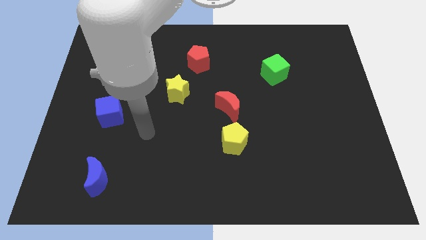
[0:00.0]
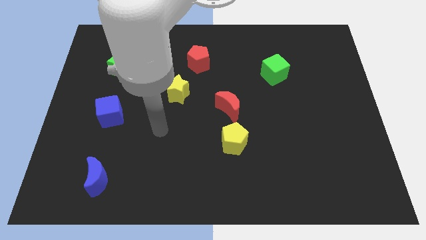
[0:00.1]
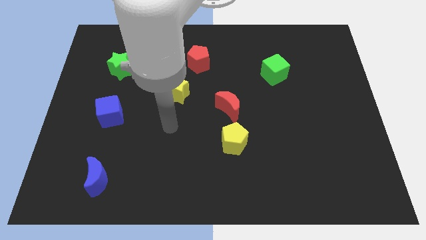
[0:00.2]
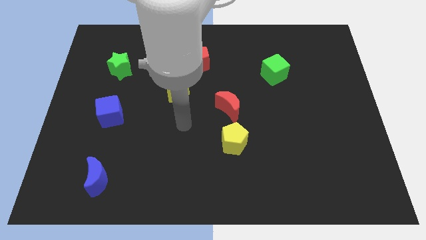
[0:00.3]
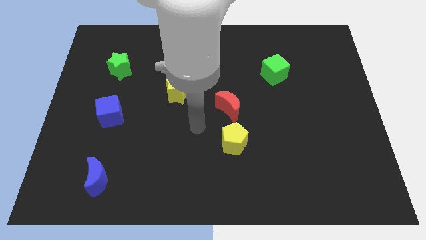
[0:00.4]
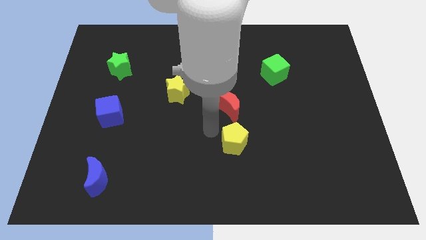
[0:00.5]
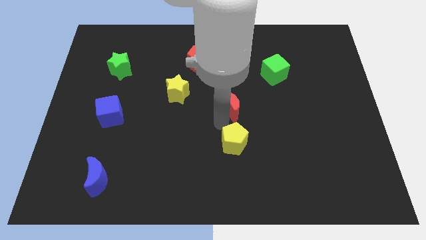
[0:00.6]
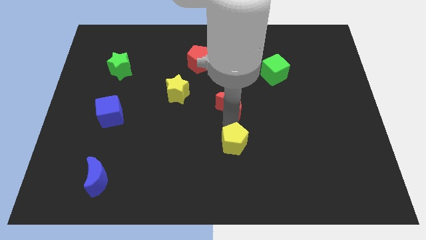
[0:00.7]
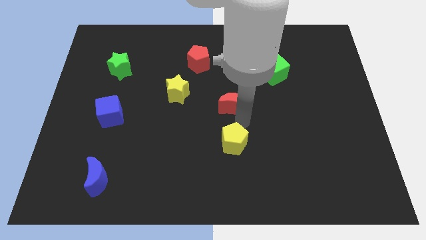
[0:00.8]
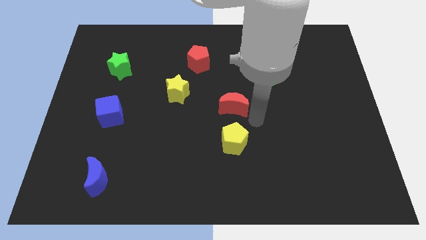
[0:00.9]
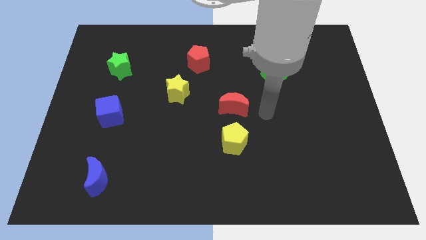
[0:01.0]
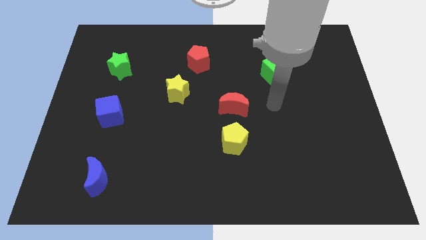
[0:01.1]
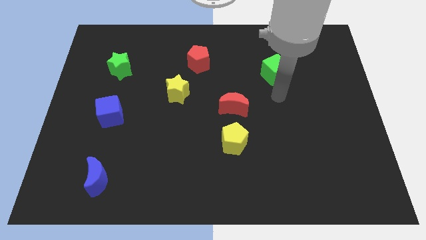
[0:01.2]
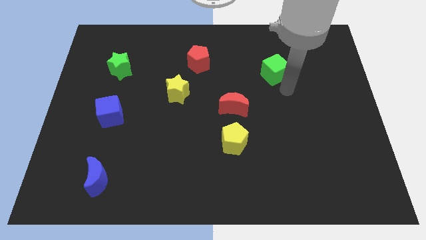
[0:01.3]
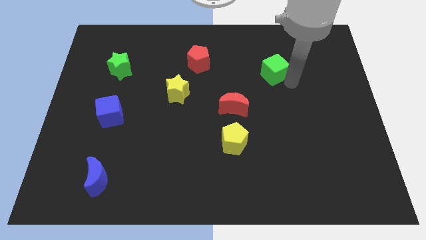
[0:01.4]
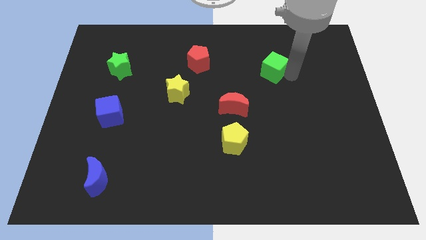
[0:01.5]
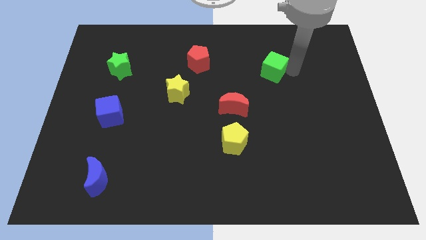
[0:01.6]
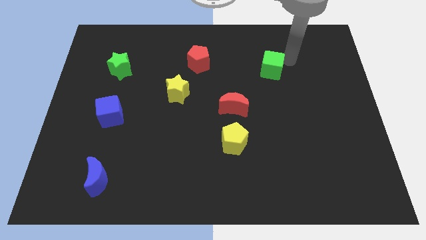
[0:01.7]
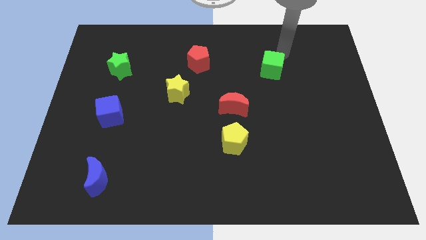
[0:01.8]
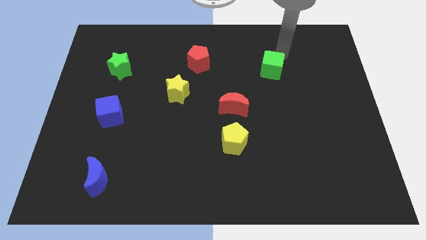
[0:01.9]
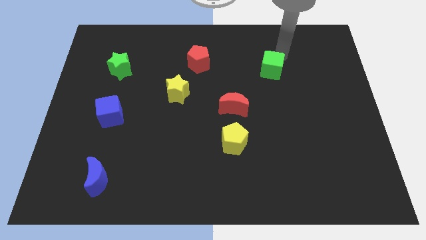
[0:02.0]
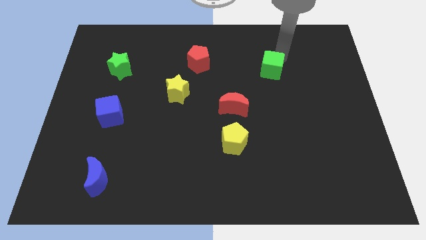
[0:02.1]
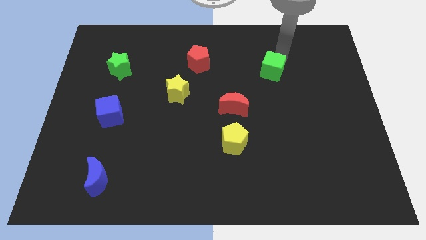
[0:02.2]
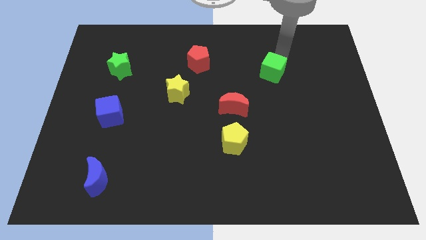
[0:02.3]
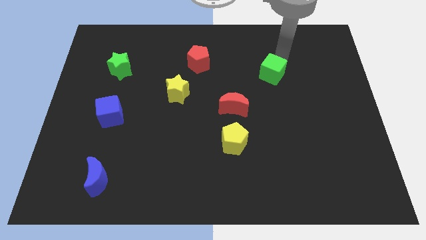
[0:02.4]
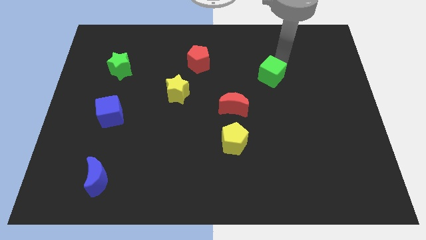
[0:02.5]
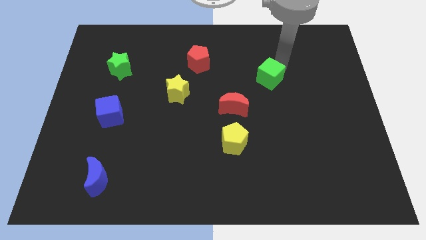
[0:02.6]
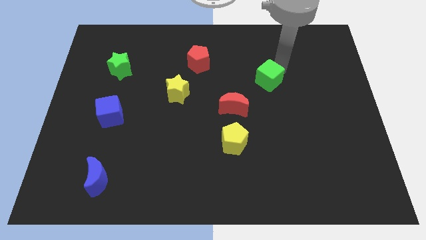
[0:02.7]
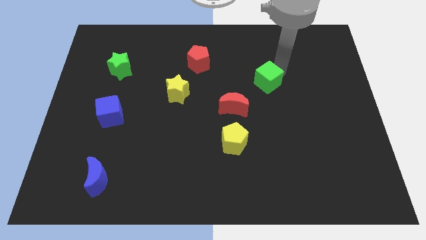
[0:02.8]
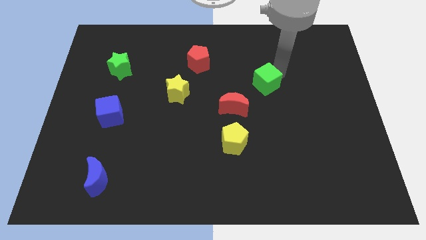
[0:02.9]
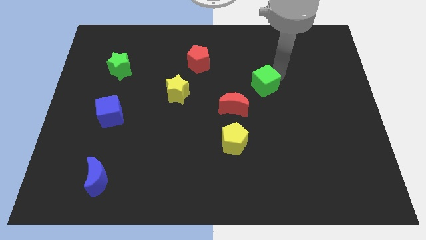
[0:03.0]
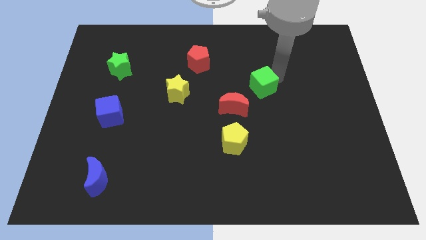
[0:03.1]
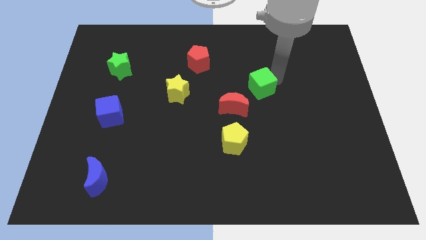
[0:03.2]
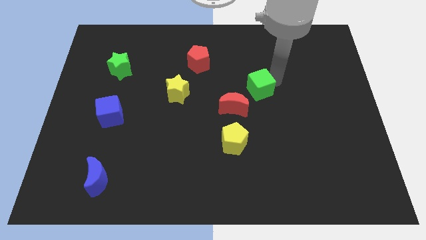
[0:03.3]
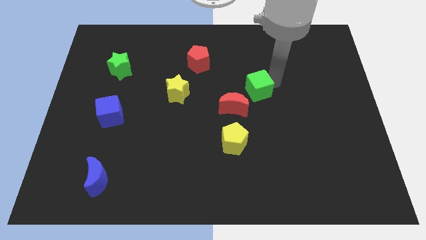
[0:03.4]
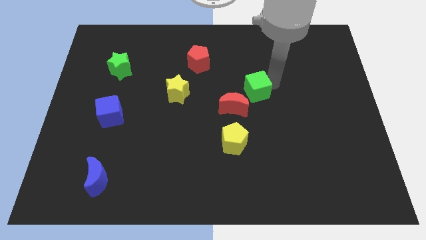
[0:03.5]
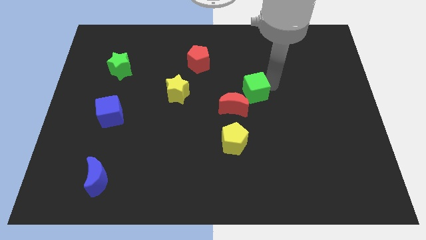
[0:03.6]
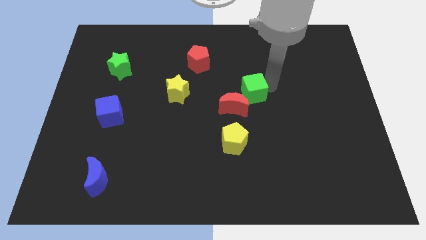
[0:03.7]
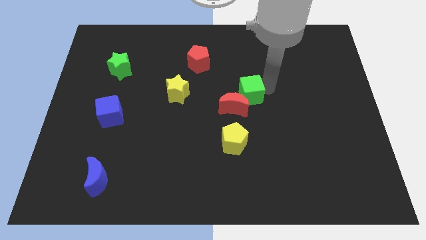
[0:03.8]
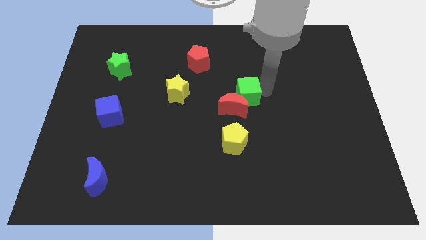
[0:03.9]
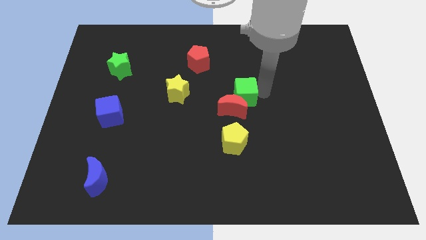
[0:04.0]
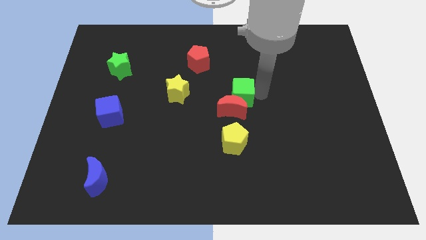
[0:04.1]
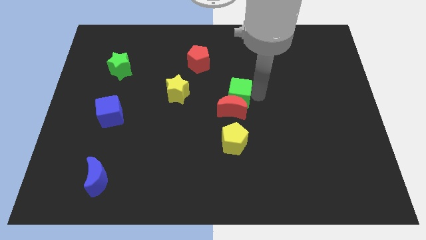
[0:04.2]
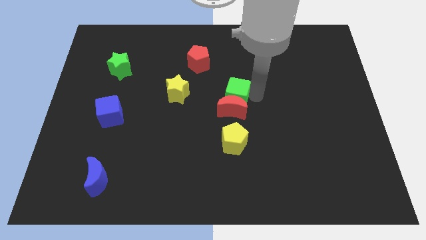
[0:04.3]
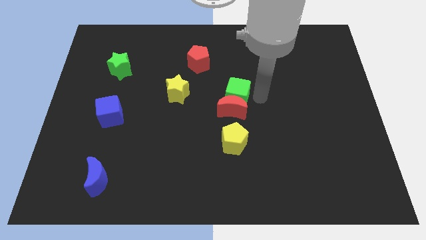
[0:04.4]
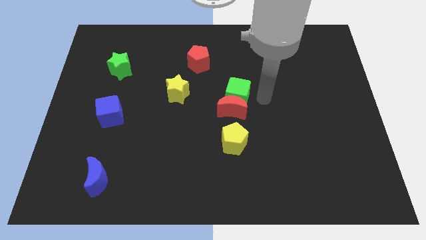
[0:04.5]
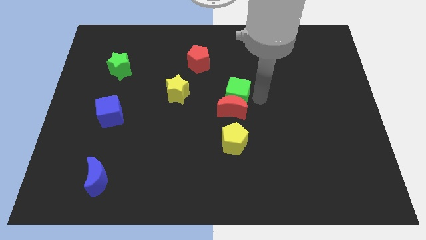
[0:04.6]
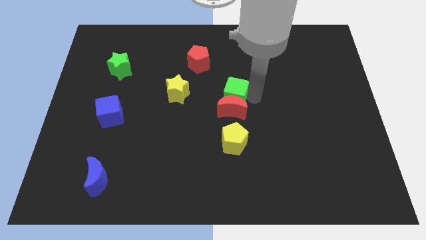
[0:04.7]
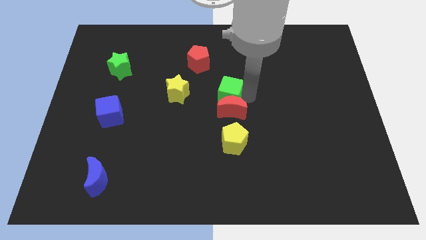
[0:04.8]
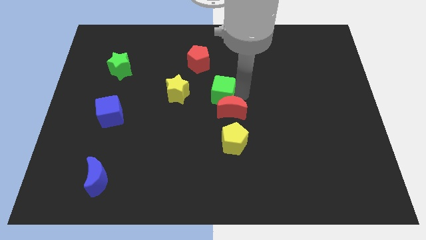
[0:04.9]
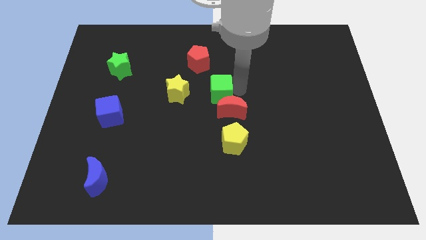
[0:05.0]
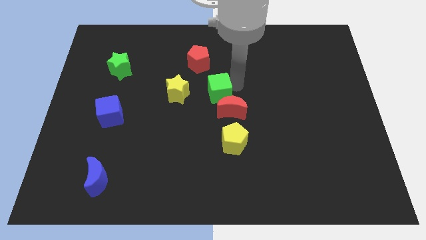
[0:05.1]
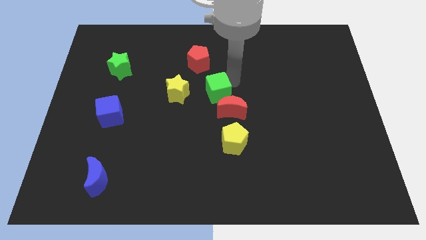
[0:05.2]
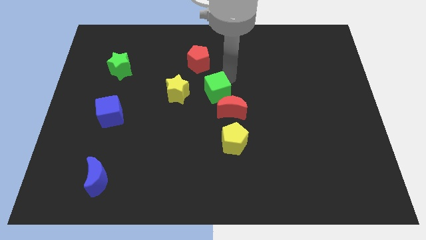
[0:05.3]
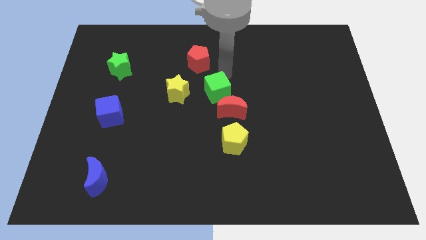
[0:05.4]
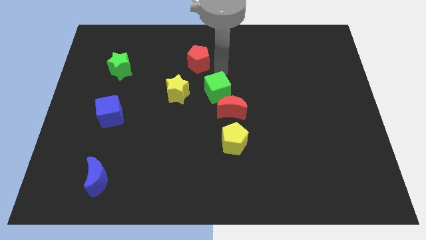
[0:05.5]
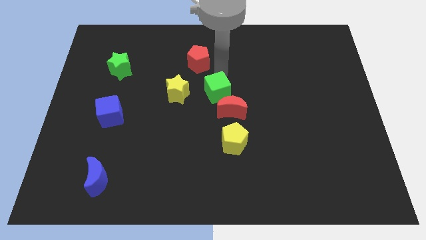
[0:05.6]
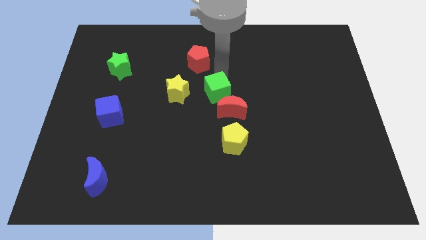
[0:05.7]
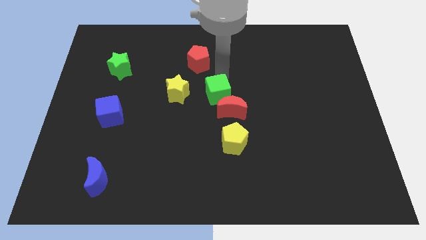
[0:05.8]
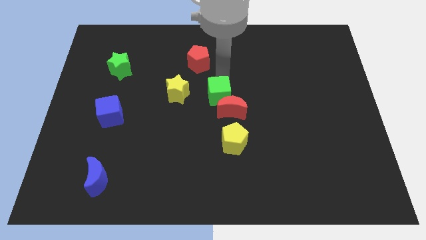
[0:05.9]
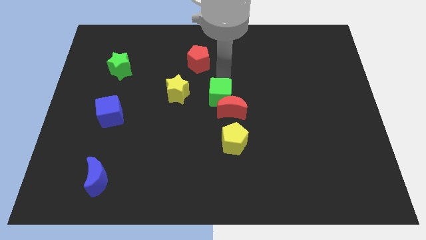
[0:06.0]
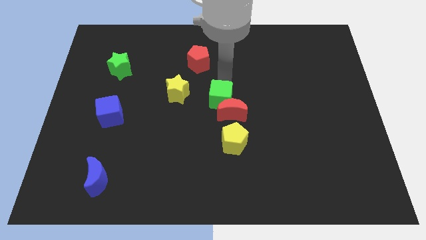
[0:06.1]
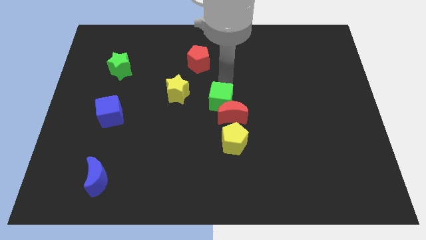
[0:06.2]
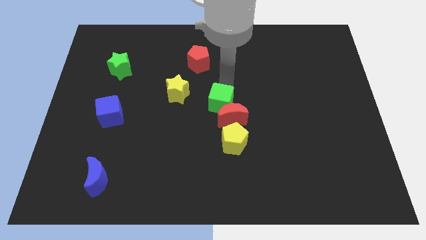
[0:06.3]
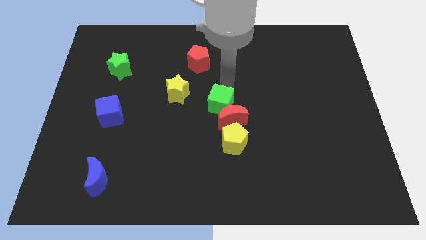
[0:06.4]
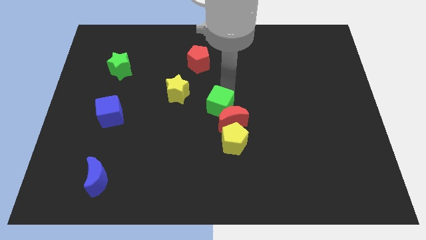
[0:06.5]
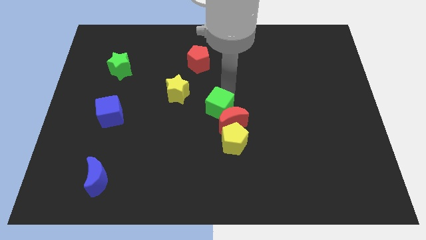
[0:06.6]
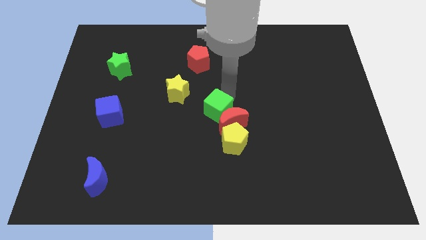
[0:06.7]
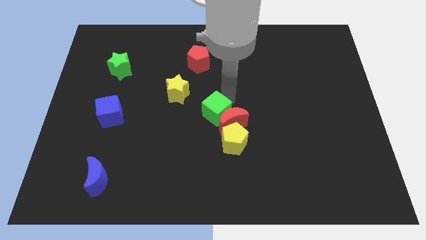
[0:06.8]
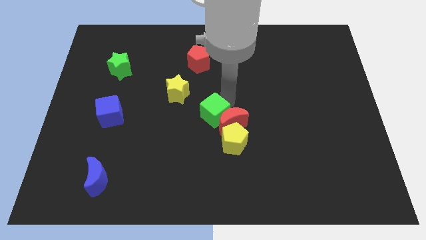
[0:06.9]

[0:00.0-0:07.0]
slide the green cube down and then to the left

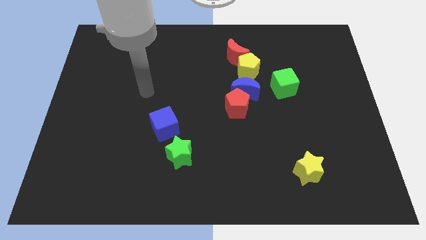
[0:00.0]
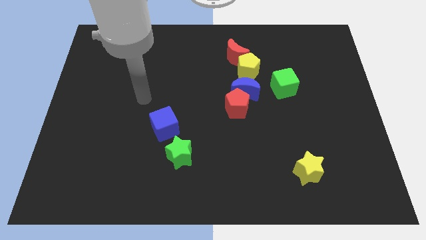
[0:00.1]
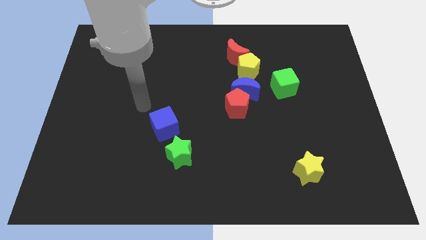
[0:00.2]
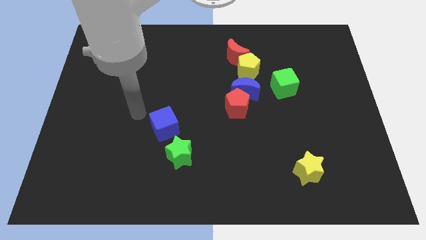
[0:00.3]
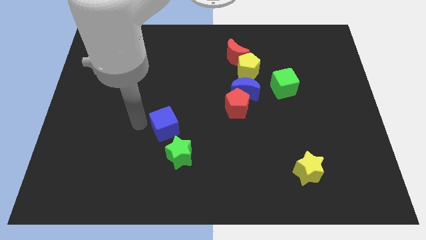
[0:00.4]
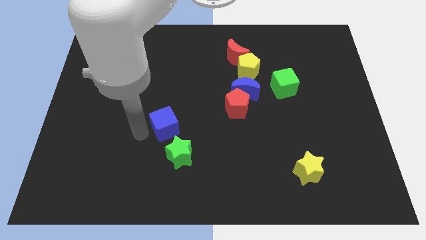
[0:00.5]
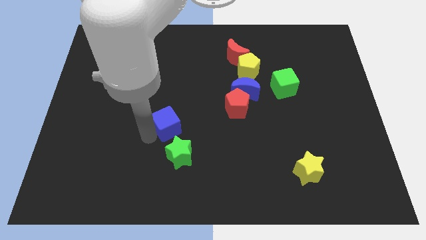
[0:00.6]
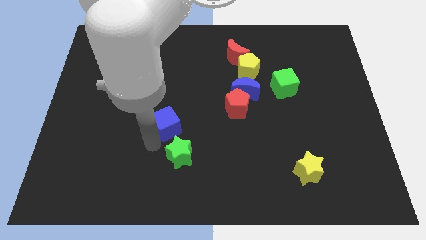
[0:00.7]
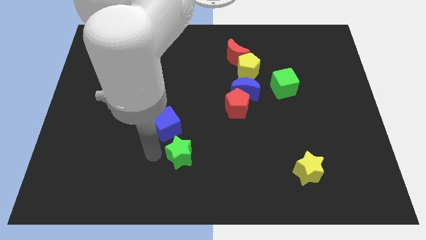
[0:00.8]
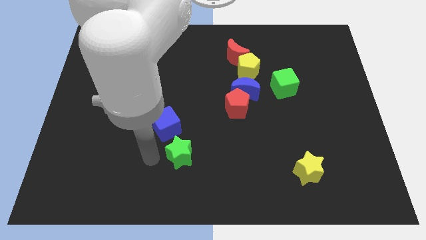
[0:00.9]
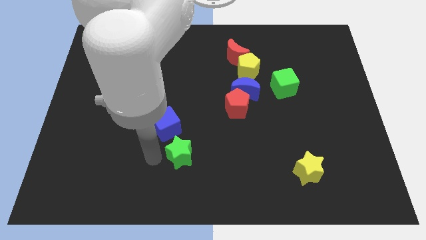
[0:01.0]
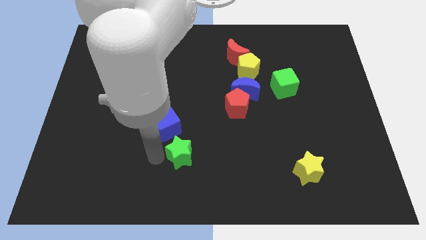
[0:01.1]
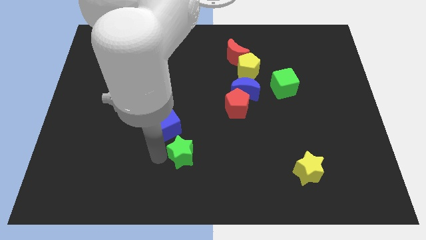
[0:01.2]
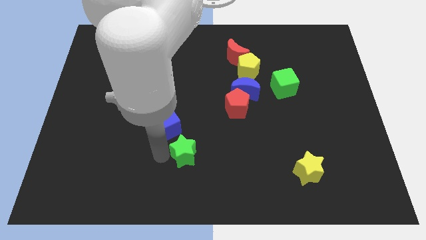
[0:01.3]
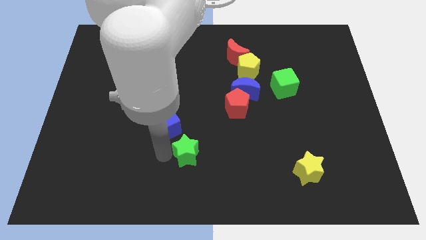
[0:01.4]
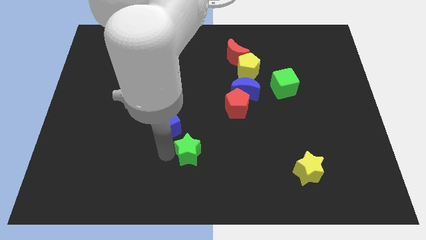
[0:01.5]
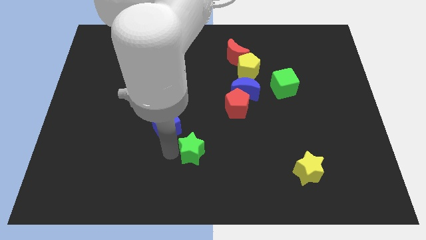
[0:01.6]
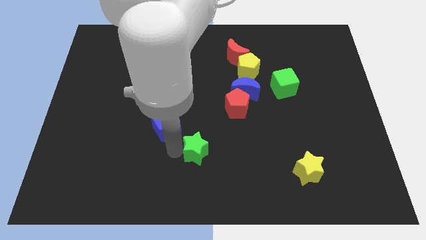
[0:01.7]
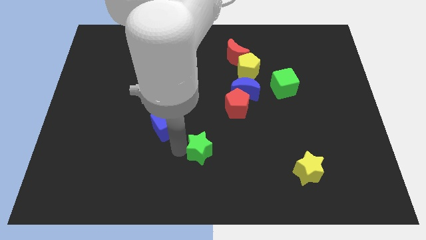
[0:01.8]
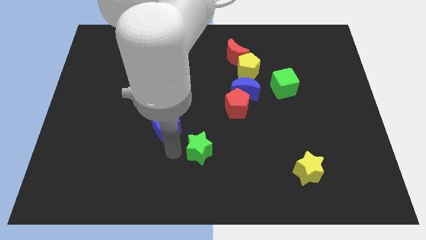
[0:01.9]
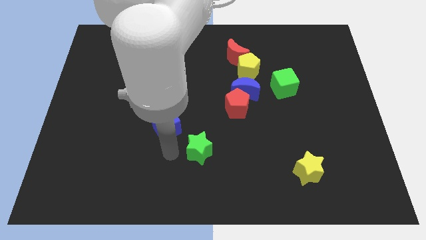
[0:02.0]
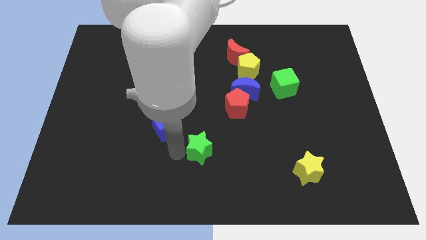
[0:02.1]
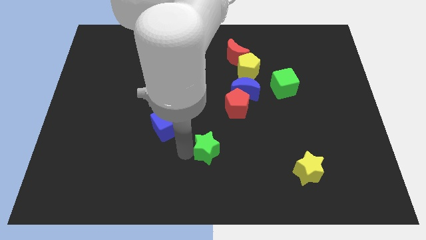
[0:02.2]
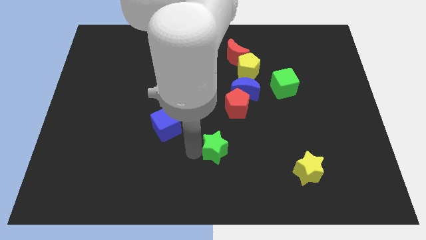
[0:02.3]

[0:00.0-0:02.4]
push the green star right a little
